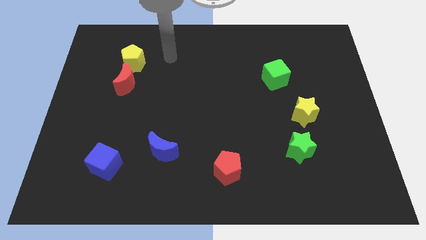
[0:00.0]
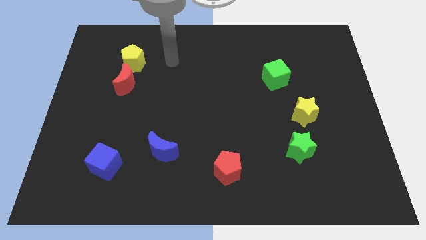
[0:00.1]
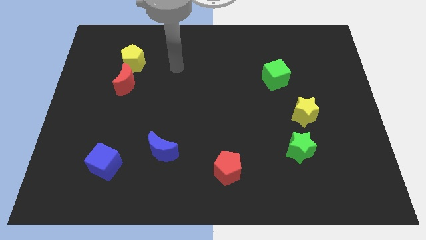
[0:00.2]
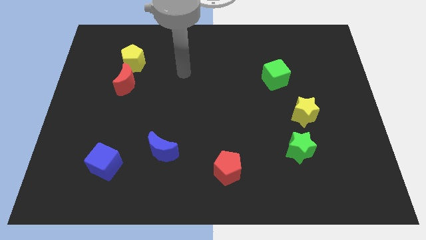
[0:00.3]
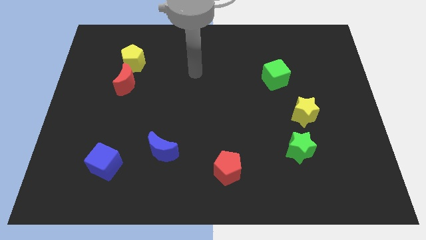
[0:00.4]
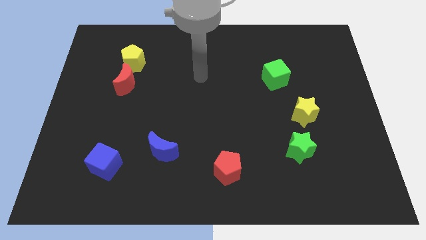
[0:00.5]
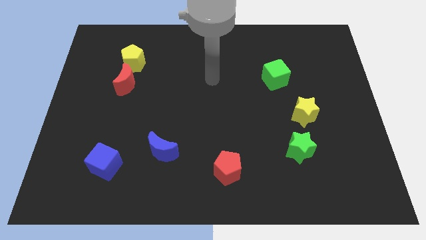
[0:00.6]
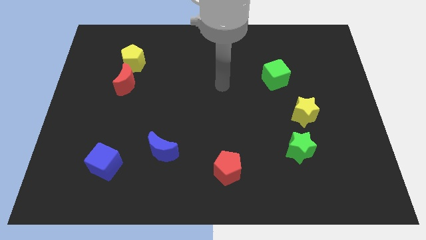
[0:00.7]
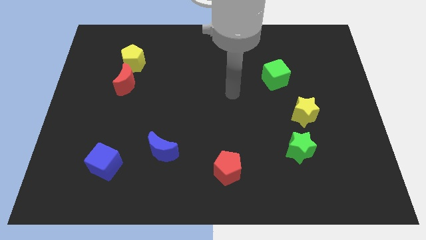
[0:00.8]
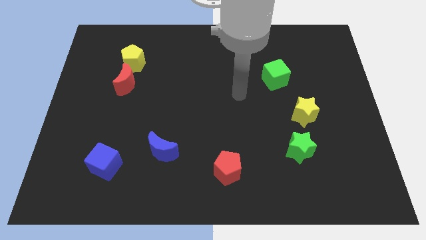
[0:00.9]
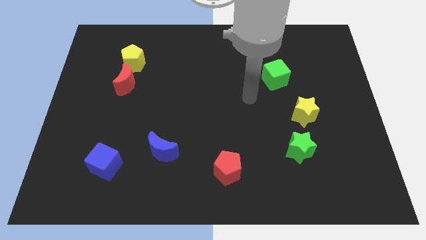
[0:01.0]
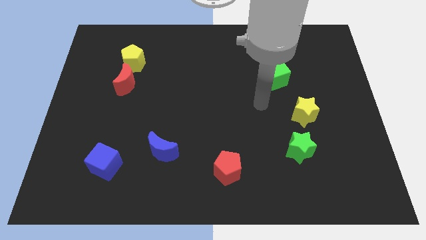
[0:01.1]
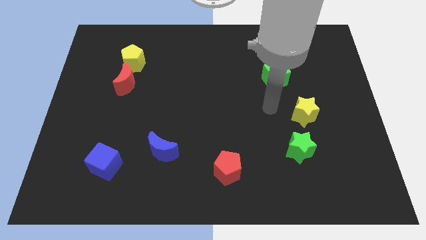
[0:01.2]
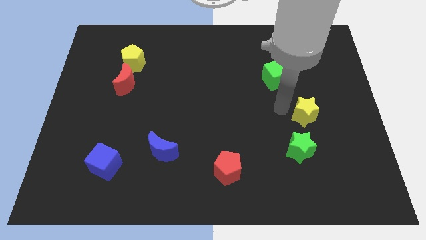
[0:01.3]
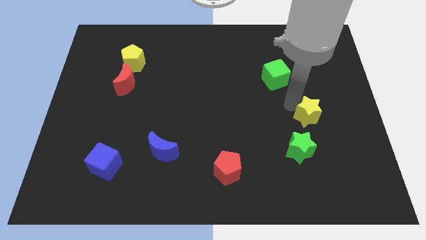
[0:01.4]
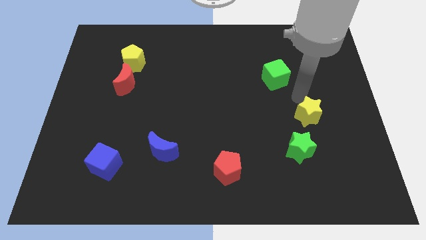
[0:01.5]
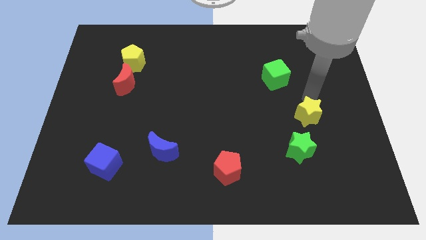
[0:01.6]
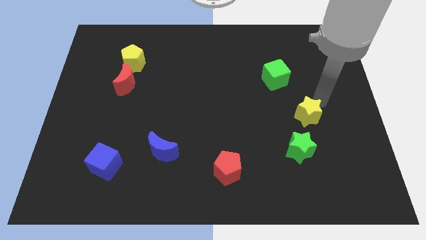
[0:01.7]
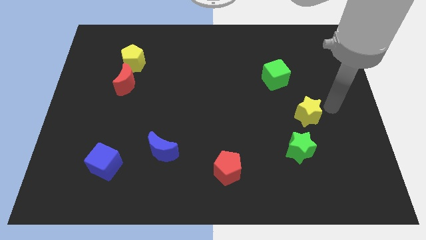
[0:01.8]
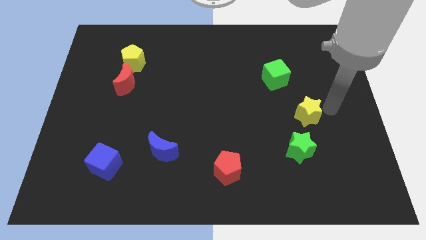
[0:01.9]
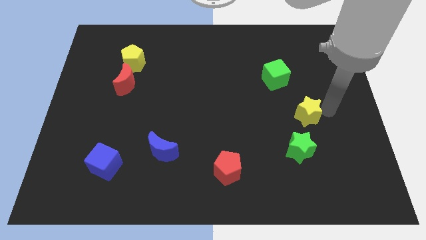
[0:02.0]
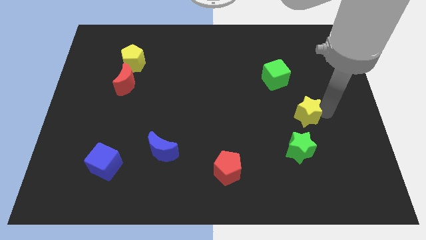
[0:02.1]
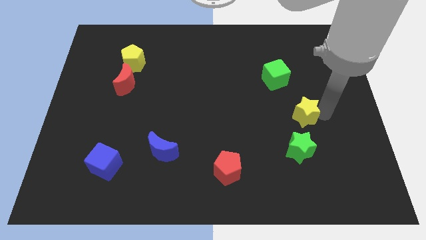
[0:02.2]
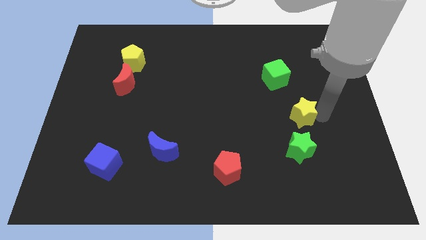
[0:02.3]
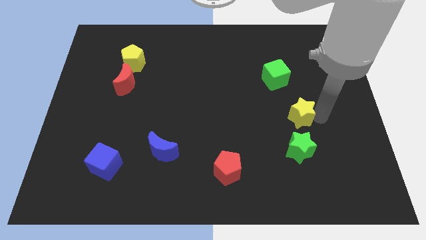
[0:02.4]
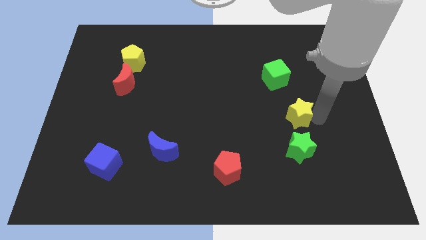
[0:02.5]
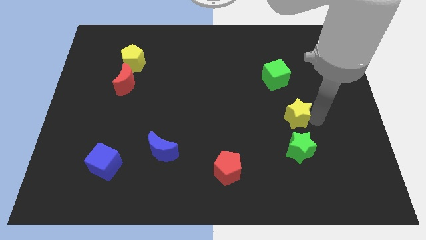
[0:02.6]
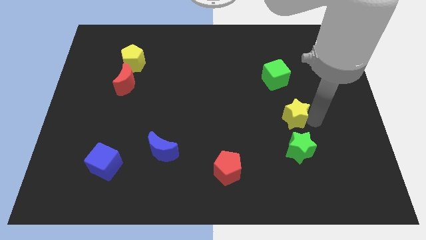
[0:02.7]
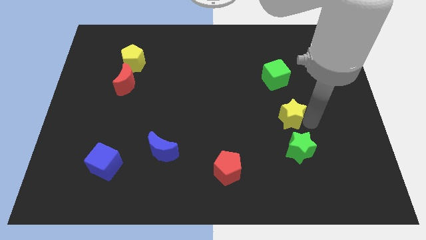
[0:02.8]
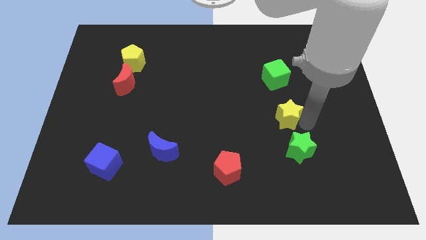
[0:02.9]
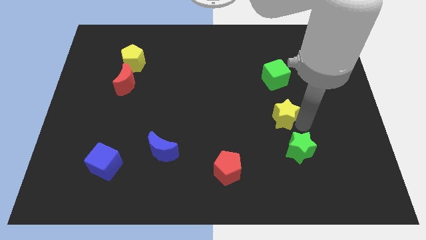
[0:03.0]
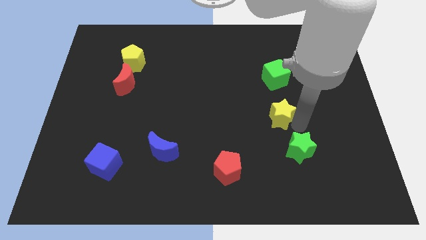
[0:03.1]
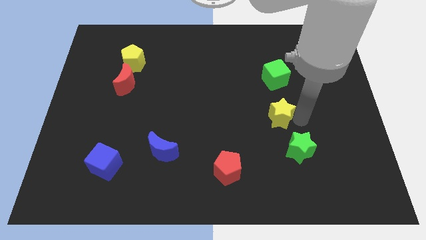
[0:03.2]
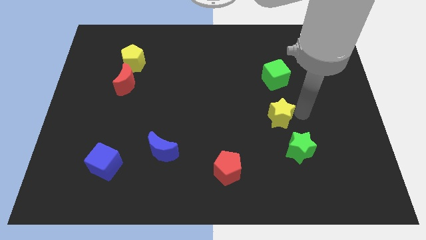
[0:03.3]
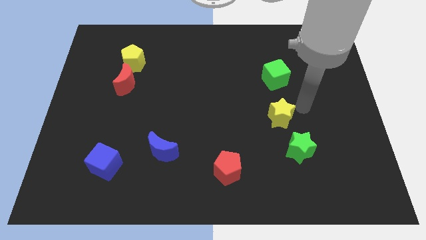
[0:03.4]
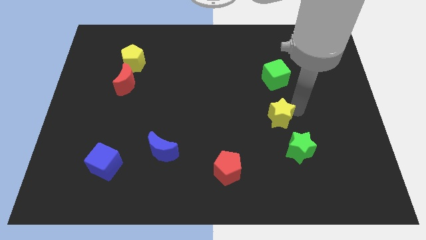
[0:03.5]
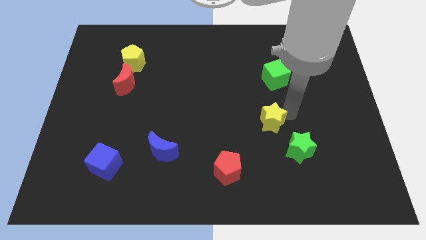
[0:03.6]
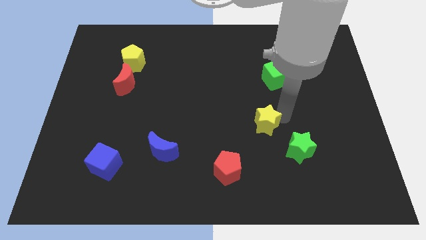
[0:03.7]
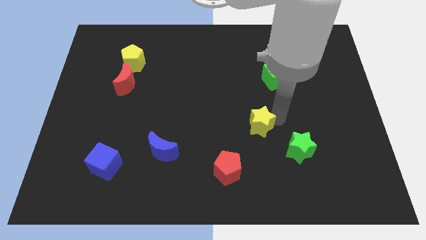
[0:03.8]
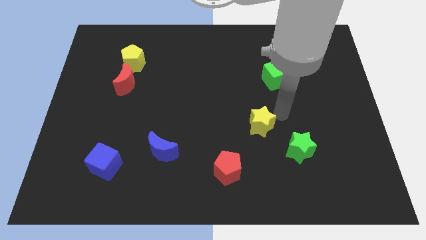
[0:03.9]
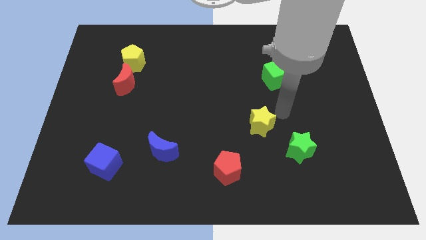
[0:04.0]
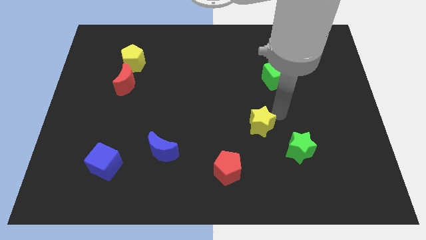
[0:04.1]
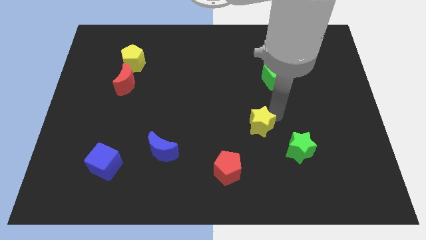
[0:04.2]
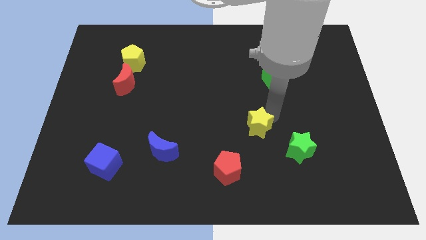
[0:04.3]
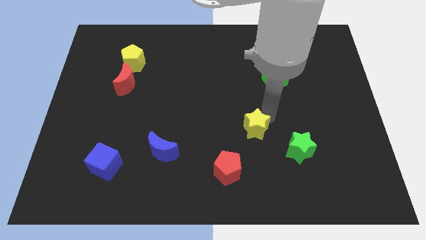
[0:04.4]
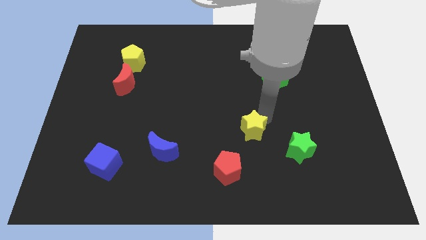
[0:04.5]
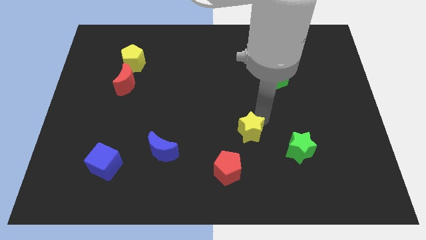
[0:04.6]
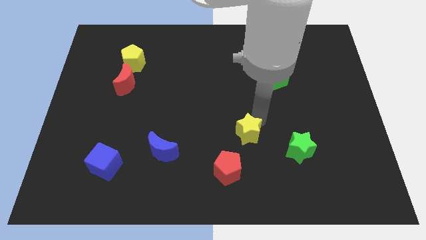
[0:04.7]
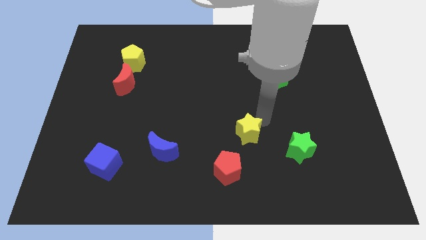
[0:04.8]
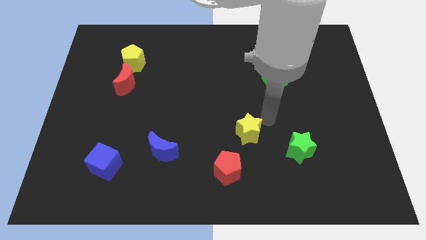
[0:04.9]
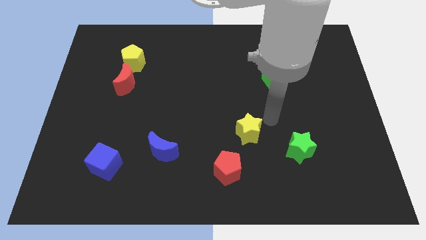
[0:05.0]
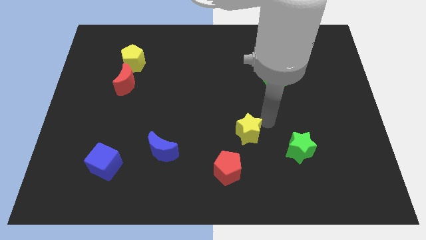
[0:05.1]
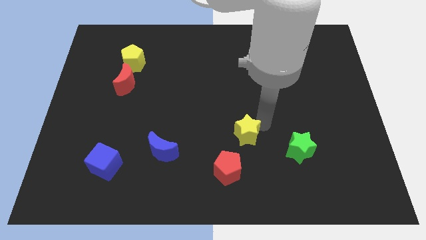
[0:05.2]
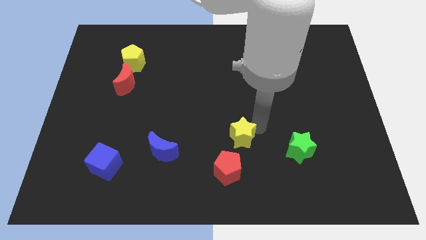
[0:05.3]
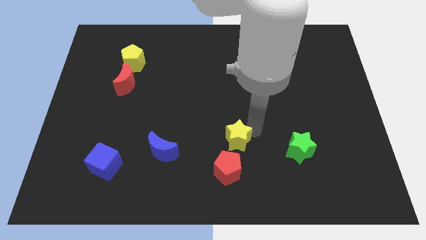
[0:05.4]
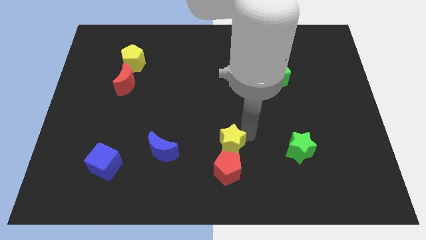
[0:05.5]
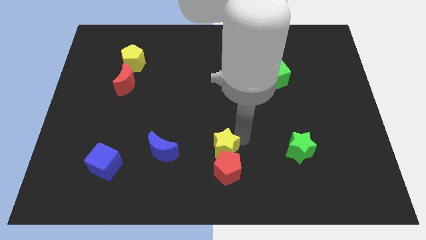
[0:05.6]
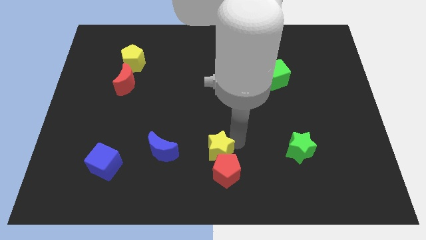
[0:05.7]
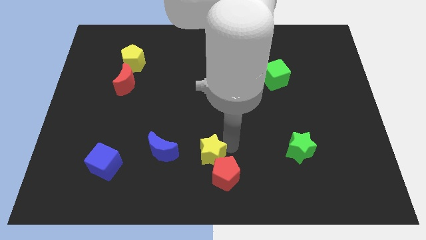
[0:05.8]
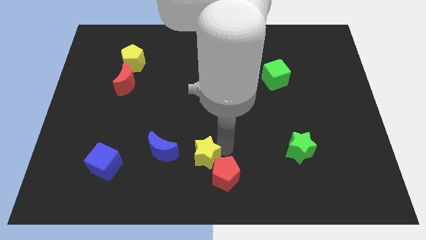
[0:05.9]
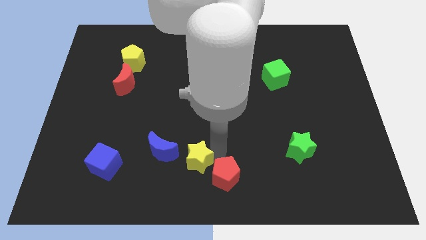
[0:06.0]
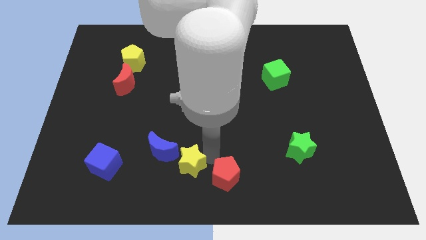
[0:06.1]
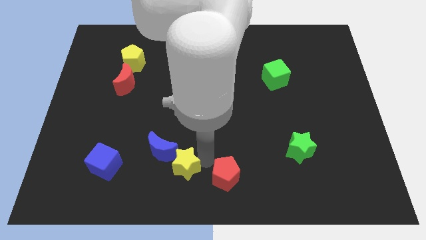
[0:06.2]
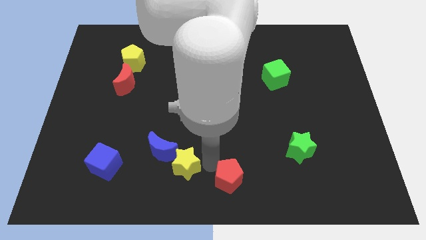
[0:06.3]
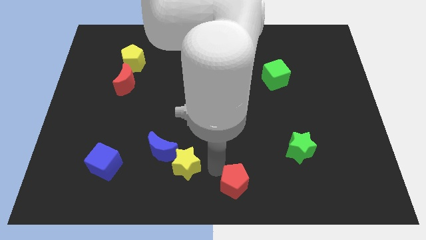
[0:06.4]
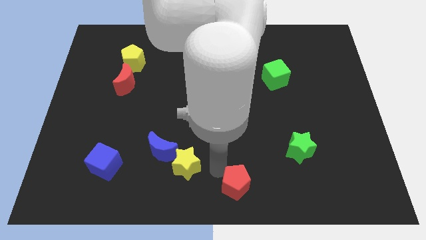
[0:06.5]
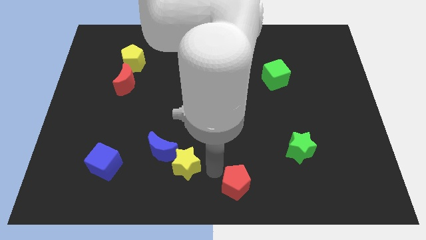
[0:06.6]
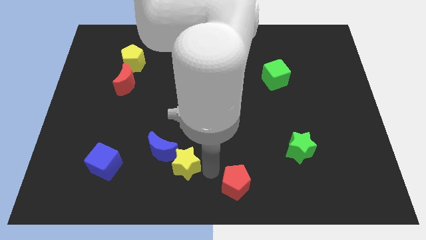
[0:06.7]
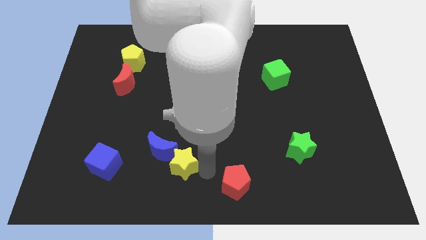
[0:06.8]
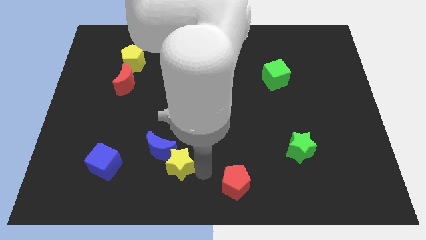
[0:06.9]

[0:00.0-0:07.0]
put the yellow star just right of the blue cube

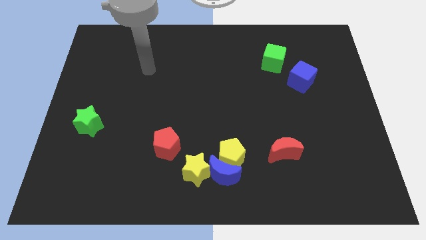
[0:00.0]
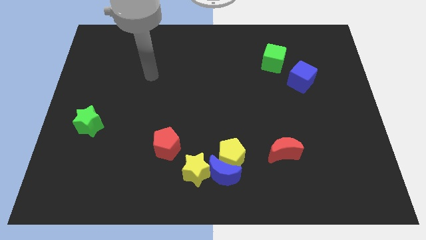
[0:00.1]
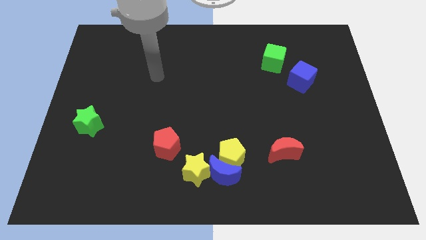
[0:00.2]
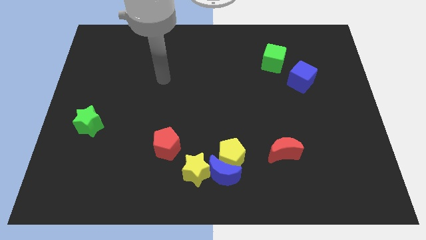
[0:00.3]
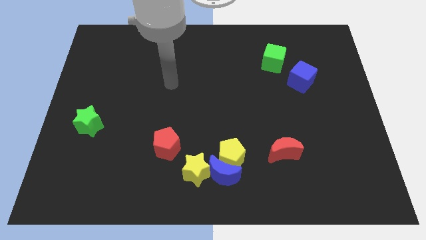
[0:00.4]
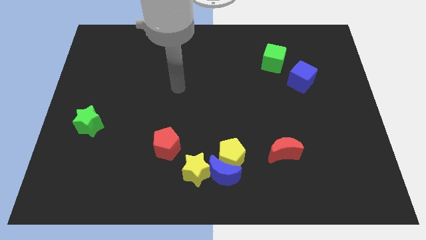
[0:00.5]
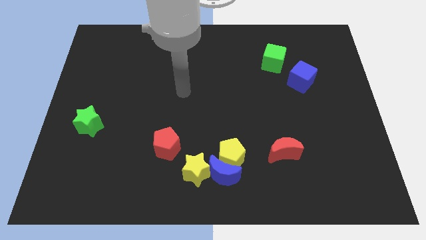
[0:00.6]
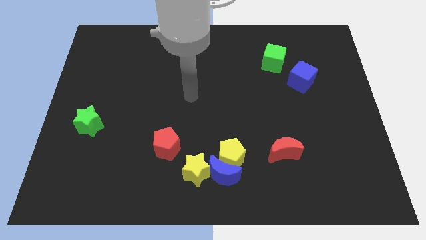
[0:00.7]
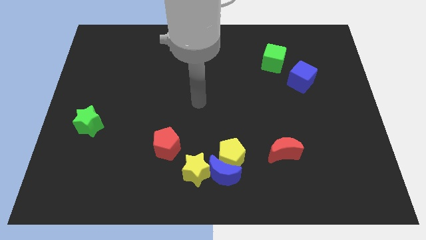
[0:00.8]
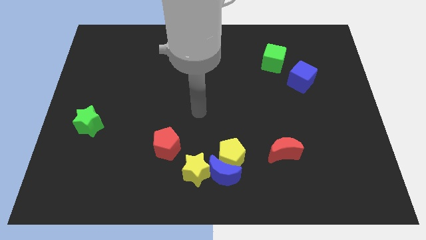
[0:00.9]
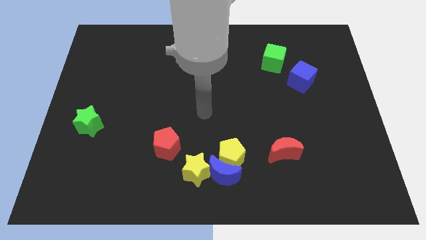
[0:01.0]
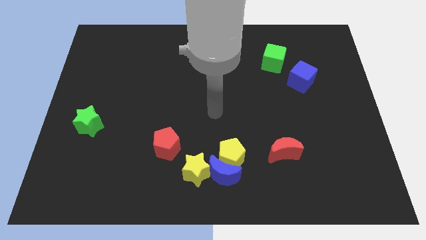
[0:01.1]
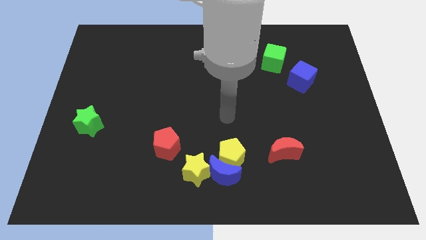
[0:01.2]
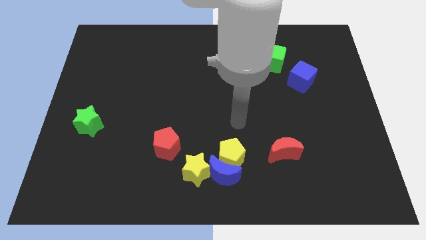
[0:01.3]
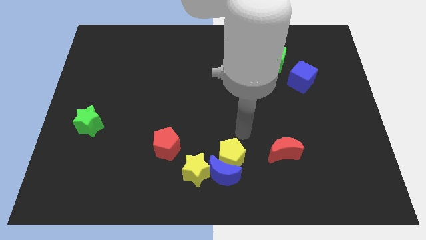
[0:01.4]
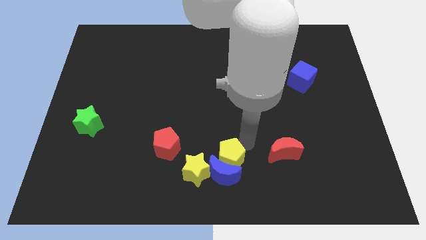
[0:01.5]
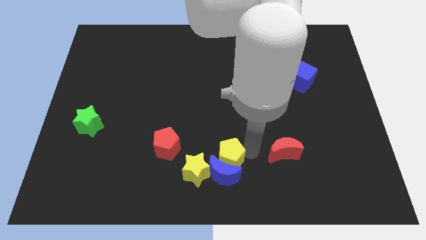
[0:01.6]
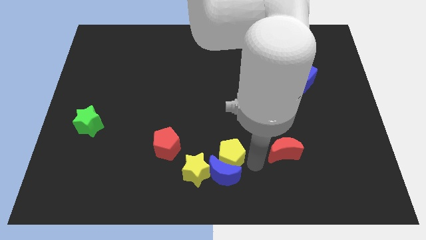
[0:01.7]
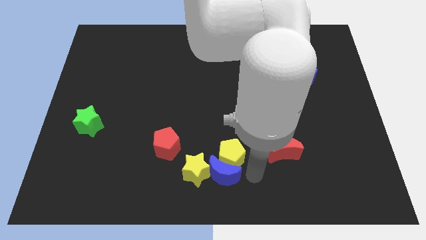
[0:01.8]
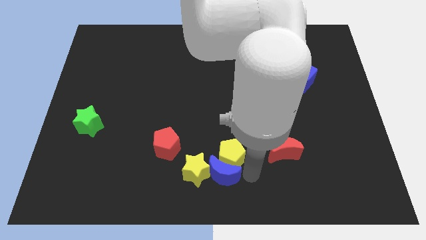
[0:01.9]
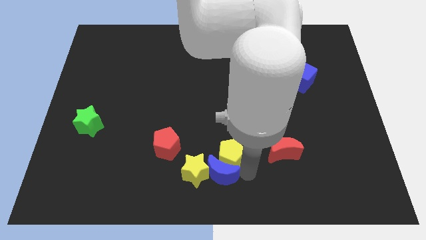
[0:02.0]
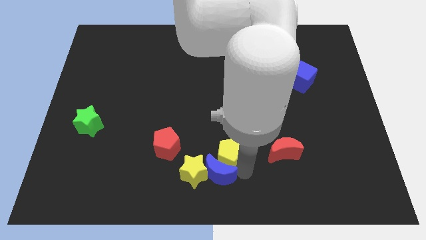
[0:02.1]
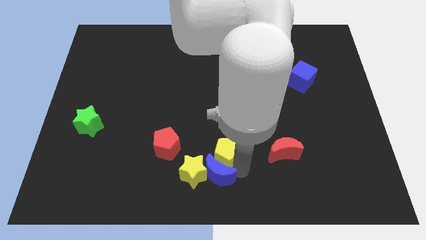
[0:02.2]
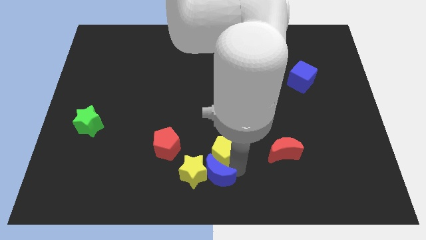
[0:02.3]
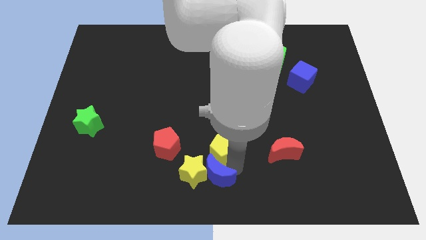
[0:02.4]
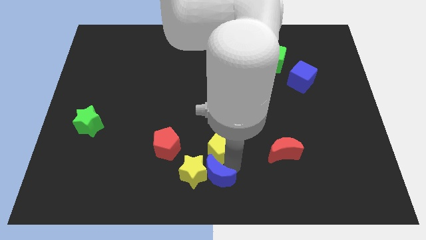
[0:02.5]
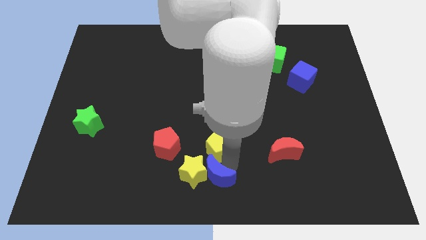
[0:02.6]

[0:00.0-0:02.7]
push the yellow pentagon to the top side of the yellow star
